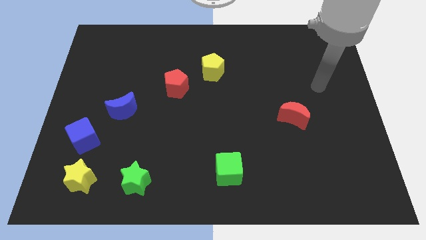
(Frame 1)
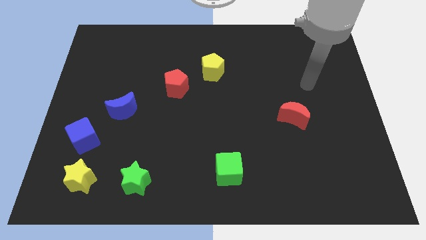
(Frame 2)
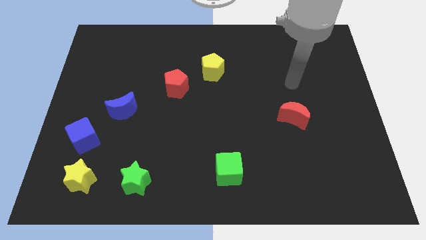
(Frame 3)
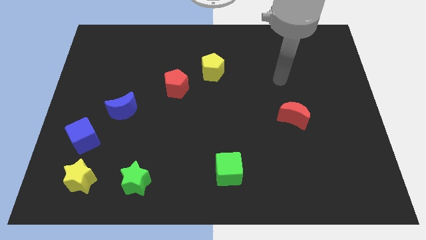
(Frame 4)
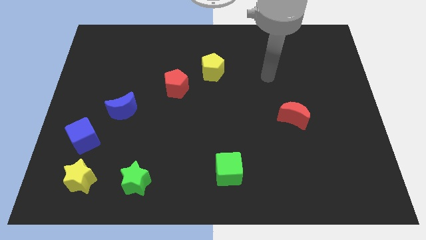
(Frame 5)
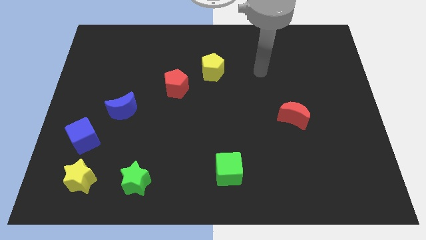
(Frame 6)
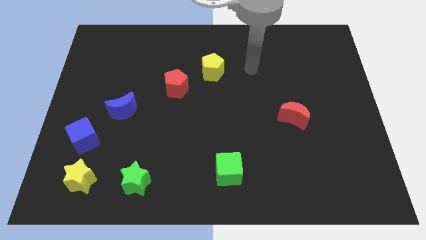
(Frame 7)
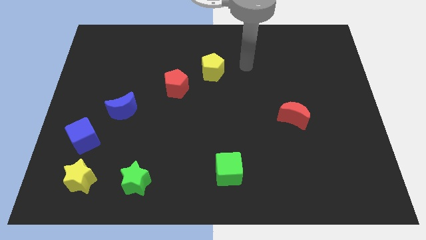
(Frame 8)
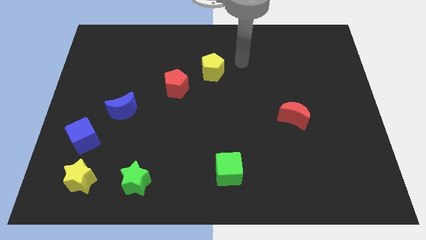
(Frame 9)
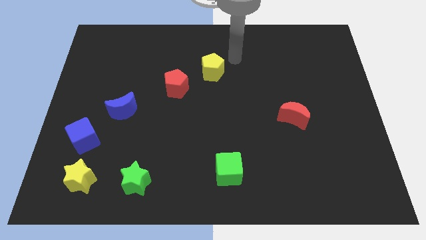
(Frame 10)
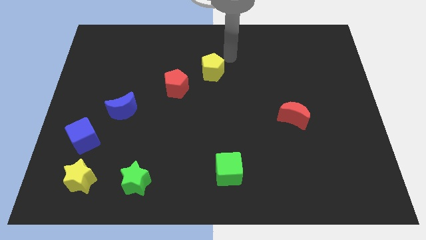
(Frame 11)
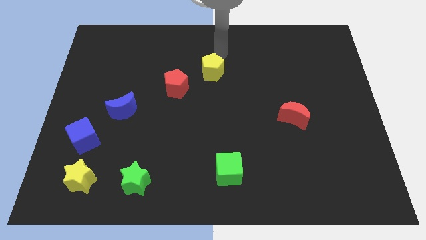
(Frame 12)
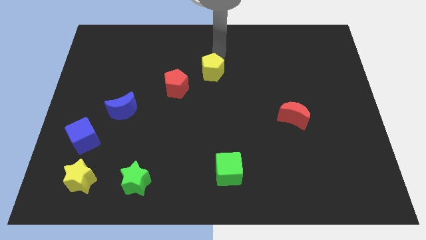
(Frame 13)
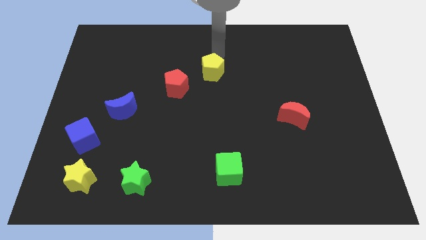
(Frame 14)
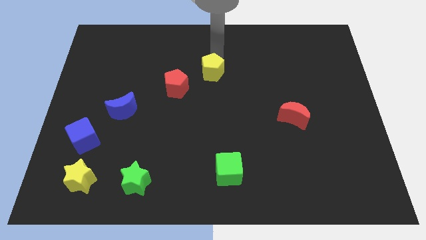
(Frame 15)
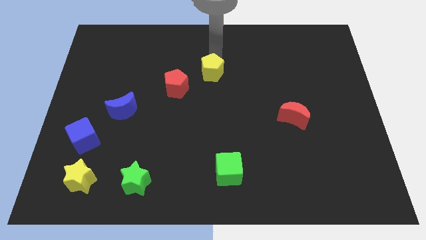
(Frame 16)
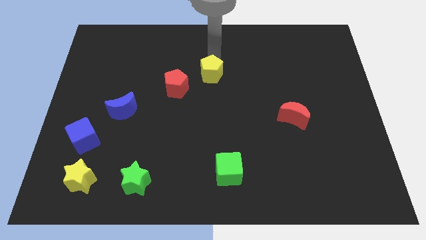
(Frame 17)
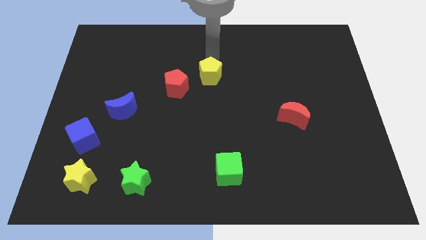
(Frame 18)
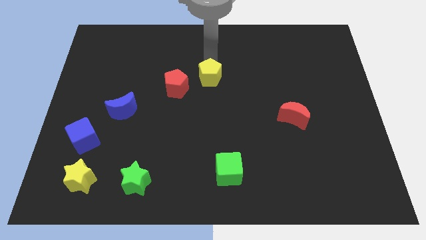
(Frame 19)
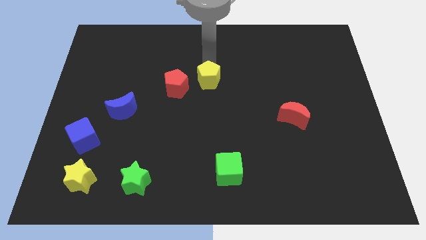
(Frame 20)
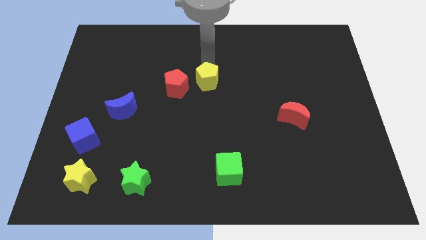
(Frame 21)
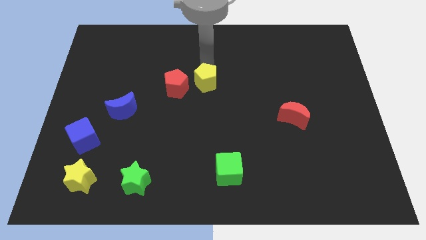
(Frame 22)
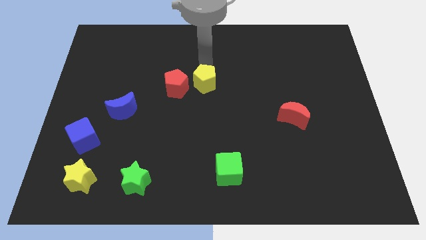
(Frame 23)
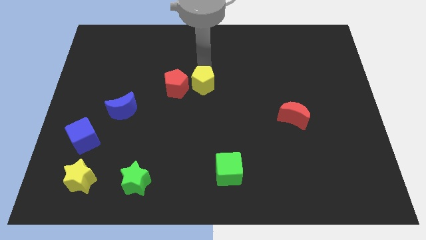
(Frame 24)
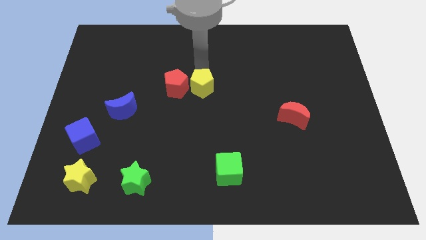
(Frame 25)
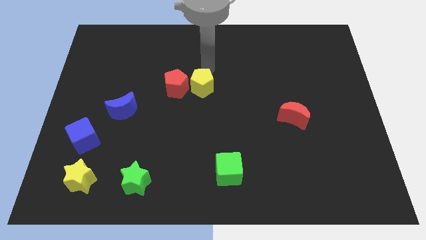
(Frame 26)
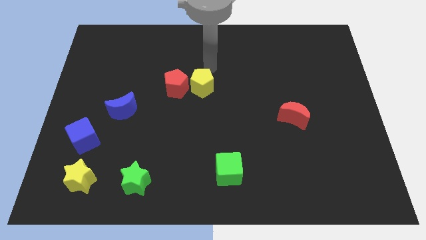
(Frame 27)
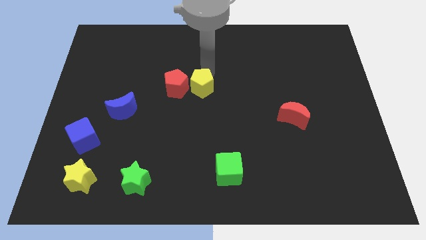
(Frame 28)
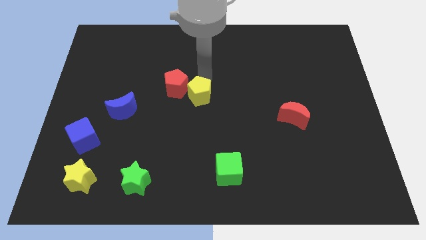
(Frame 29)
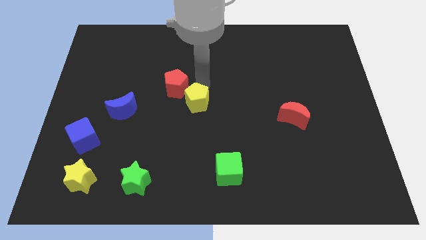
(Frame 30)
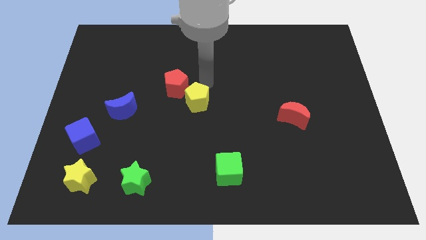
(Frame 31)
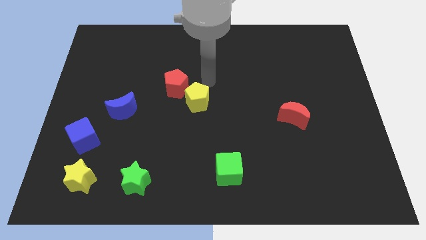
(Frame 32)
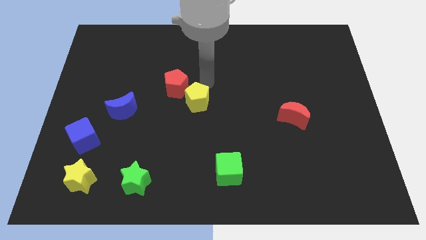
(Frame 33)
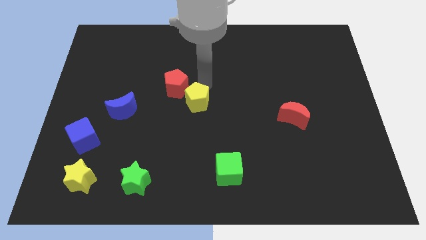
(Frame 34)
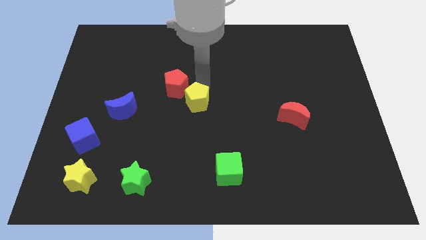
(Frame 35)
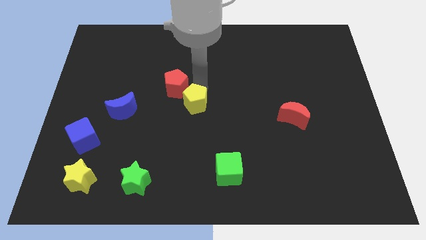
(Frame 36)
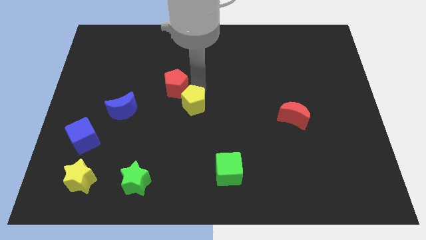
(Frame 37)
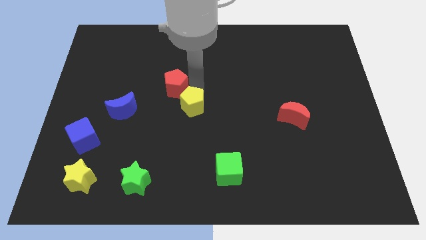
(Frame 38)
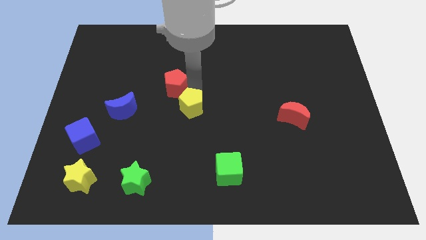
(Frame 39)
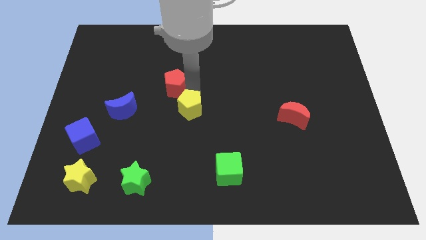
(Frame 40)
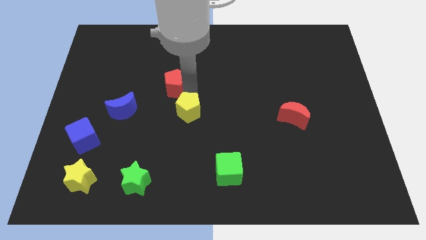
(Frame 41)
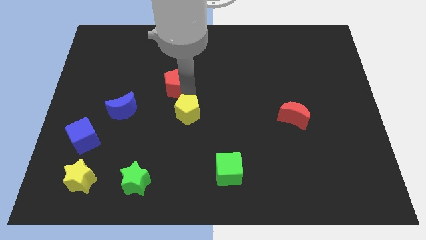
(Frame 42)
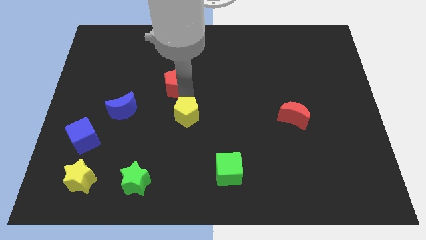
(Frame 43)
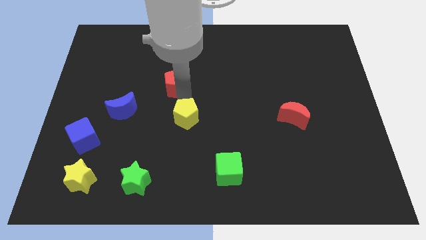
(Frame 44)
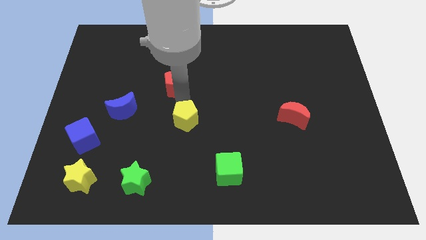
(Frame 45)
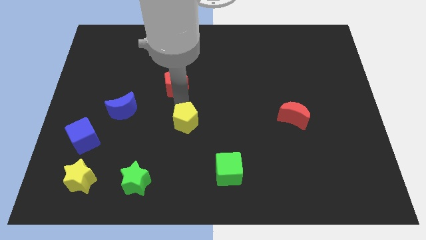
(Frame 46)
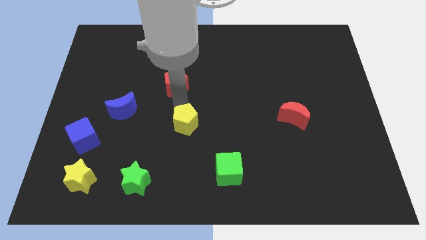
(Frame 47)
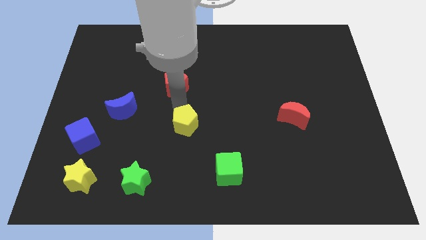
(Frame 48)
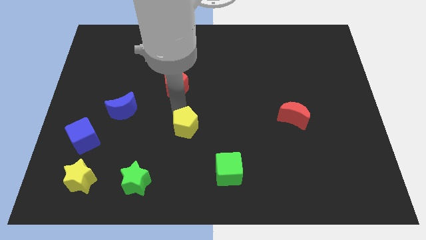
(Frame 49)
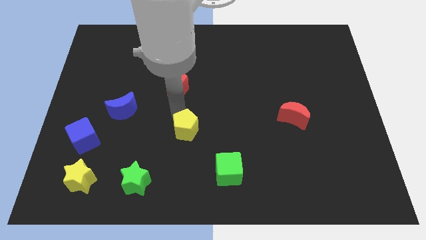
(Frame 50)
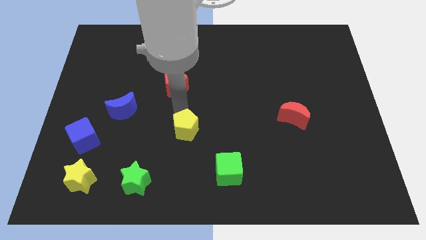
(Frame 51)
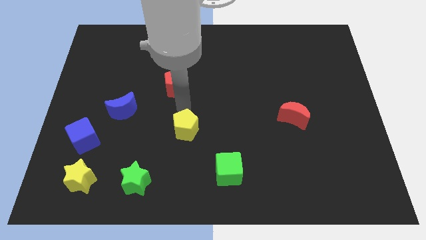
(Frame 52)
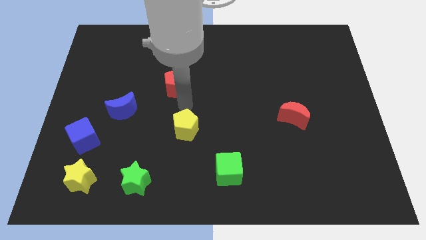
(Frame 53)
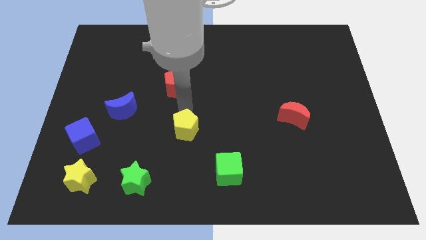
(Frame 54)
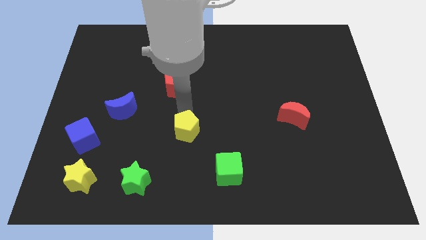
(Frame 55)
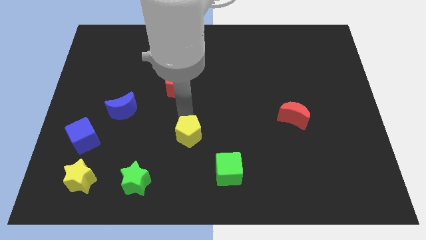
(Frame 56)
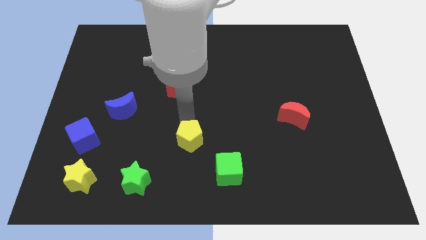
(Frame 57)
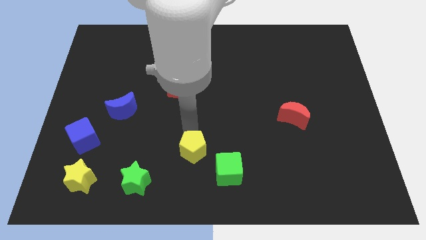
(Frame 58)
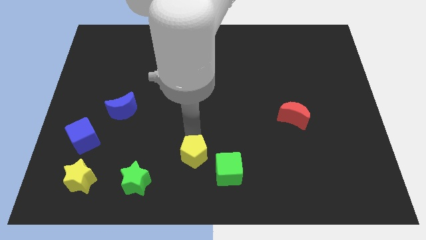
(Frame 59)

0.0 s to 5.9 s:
push the yellow pentagon just left of the green cube

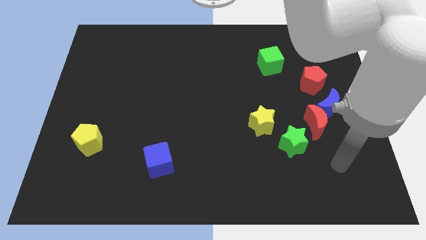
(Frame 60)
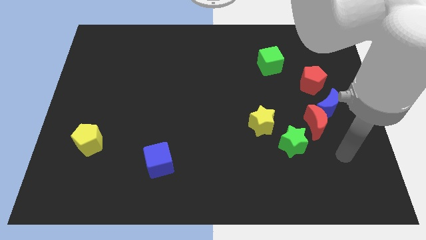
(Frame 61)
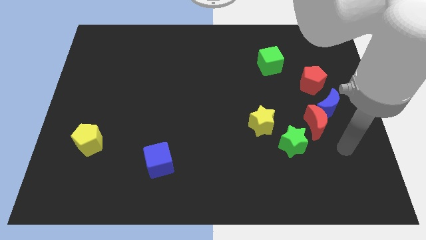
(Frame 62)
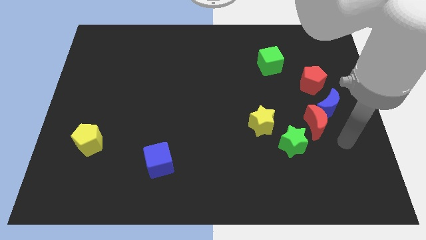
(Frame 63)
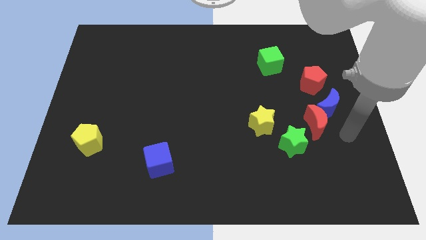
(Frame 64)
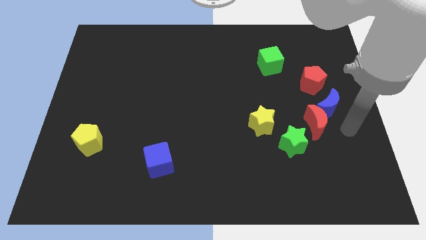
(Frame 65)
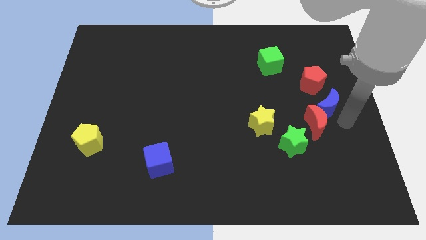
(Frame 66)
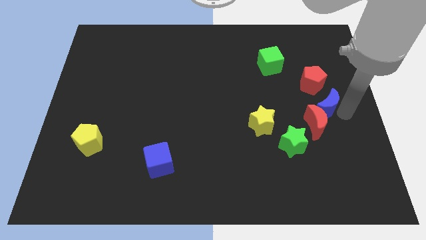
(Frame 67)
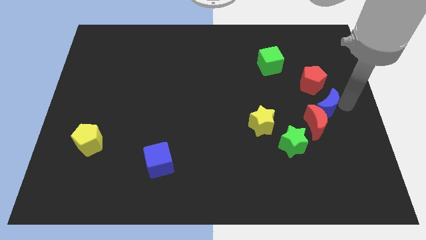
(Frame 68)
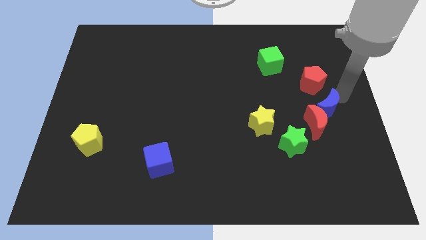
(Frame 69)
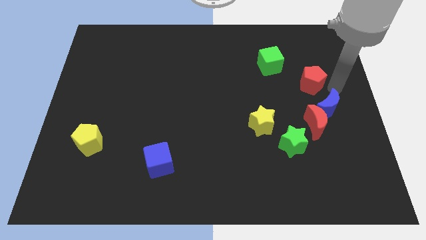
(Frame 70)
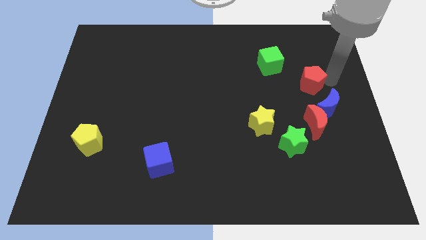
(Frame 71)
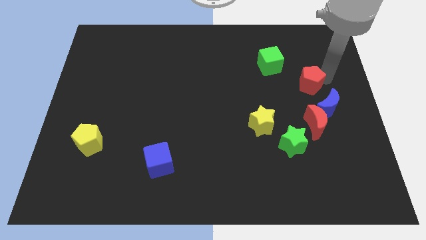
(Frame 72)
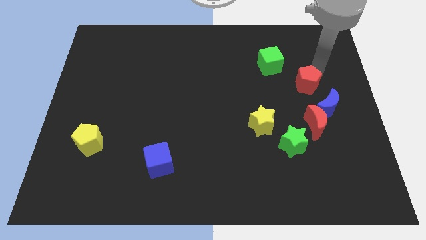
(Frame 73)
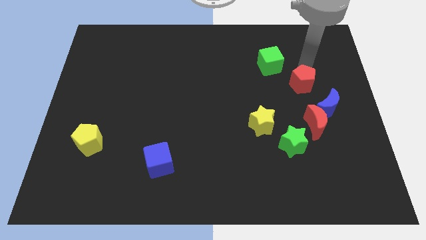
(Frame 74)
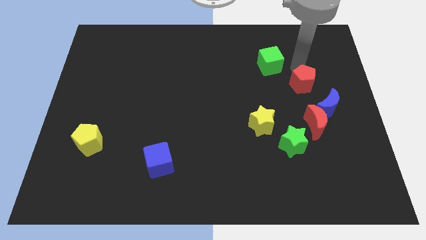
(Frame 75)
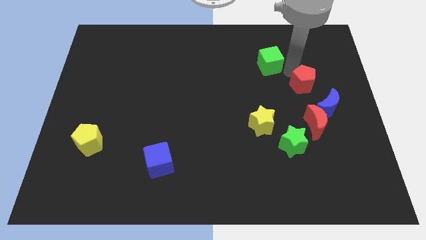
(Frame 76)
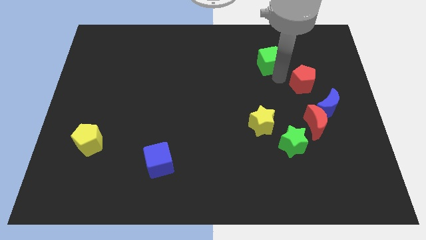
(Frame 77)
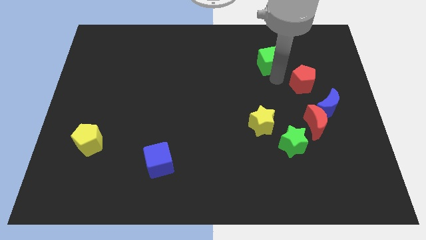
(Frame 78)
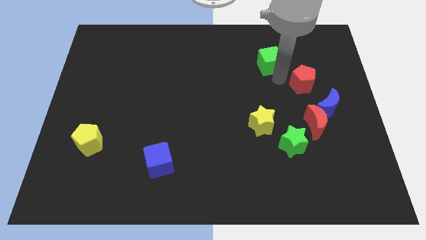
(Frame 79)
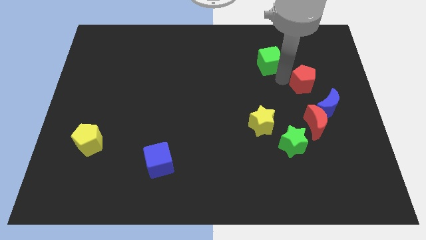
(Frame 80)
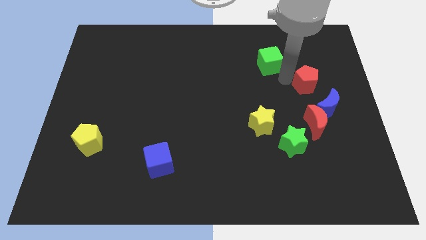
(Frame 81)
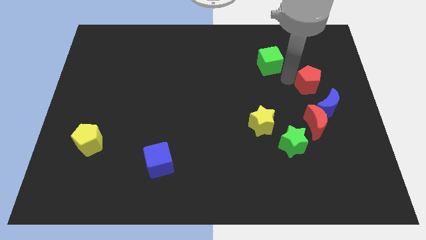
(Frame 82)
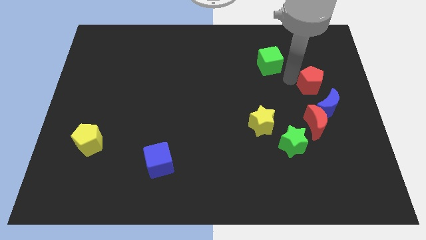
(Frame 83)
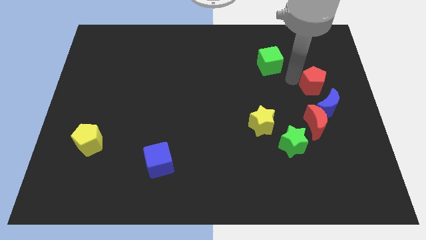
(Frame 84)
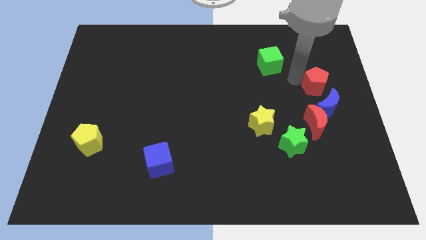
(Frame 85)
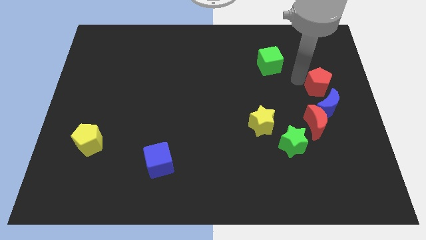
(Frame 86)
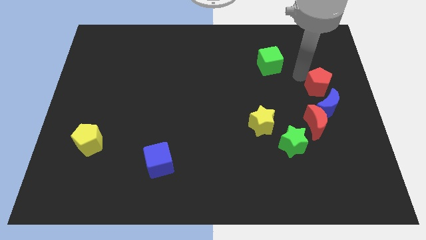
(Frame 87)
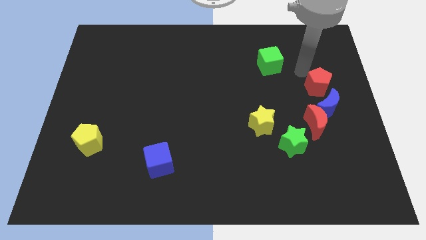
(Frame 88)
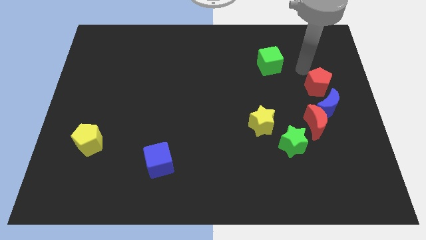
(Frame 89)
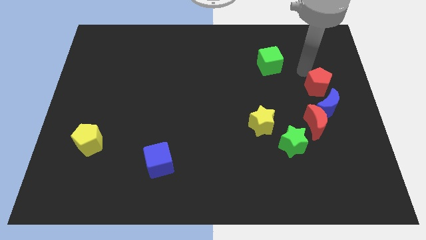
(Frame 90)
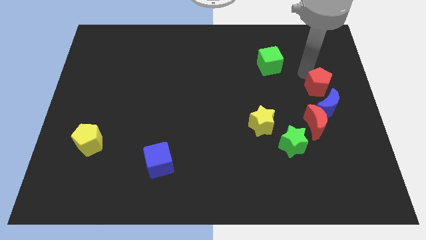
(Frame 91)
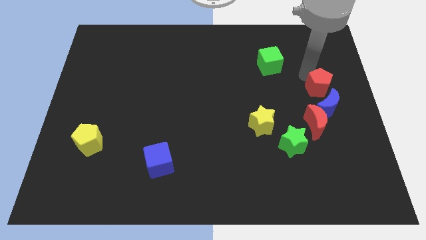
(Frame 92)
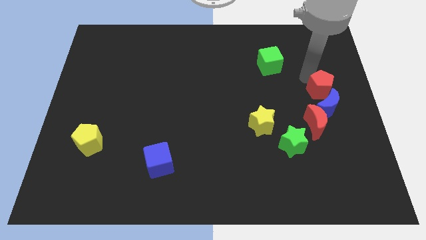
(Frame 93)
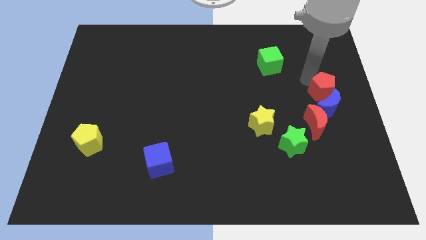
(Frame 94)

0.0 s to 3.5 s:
push the red pentagon to the top right of the red moon
